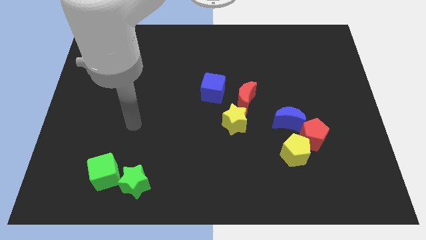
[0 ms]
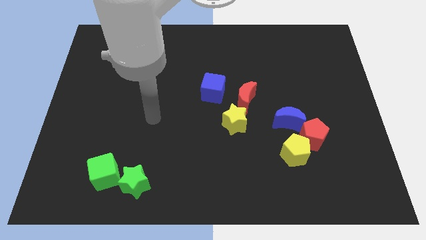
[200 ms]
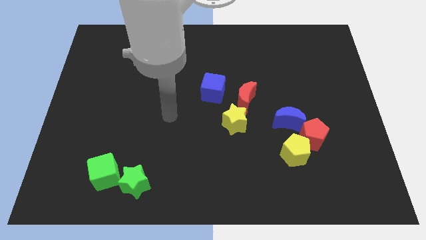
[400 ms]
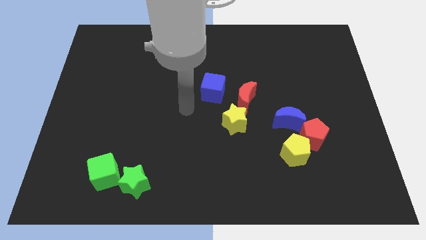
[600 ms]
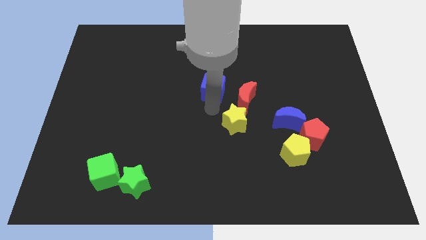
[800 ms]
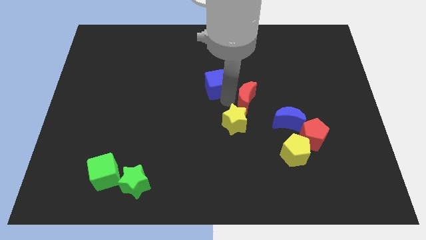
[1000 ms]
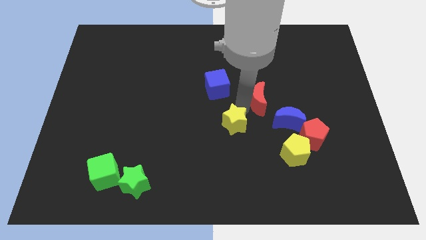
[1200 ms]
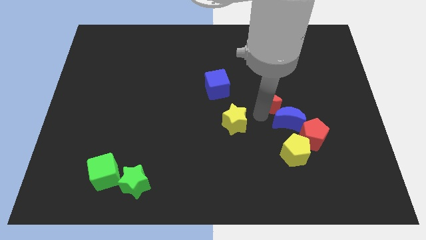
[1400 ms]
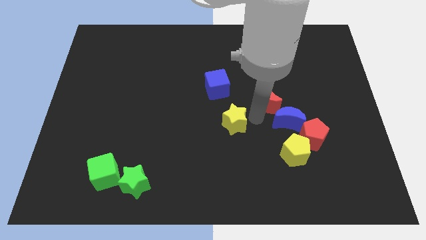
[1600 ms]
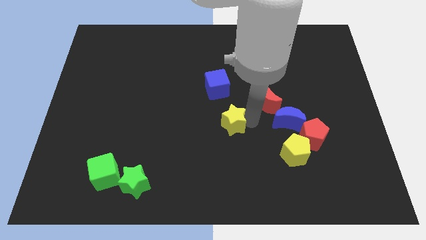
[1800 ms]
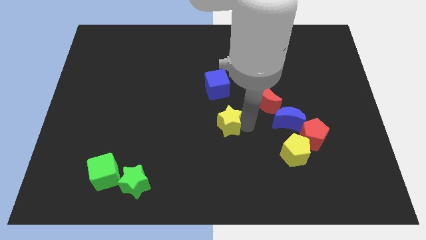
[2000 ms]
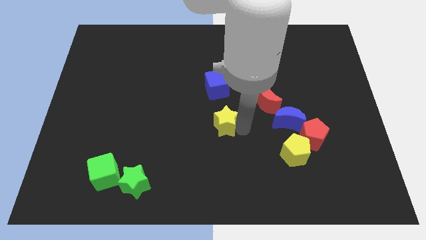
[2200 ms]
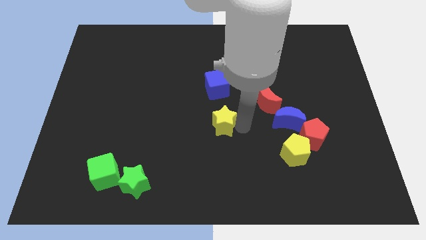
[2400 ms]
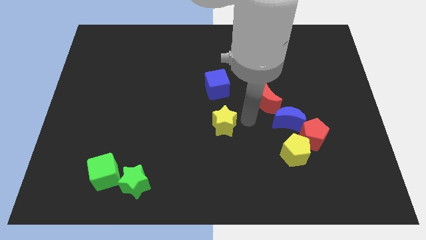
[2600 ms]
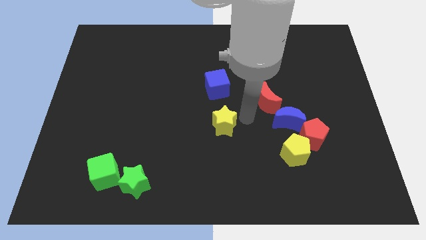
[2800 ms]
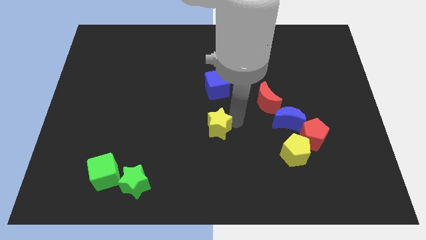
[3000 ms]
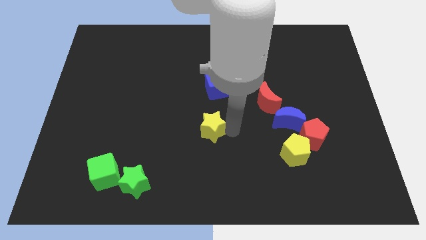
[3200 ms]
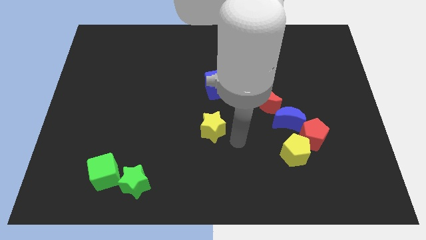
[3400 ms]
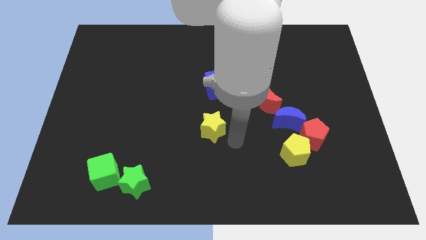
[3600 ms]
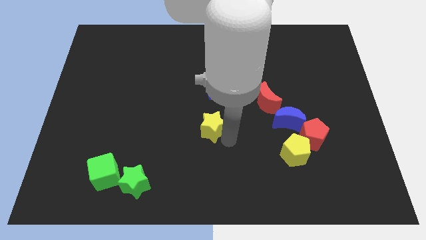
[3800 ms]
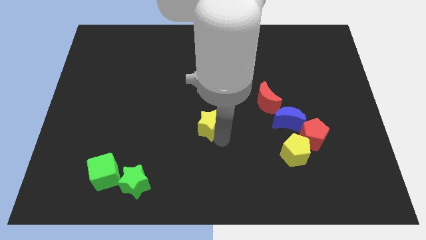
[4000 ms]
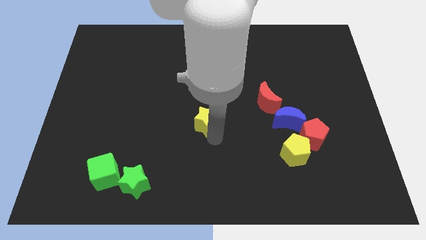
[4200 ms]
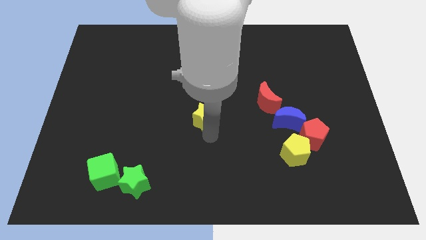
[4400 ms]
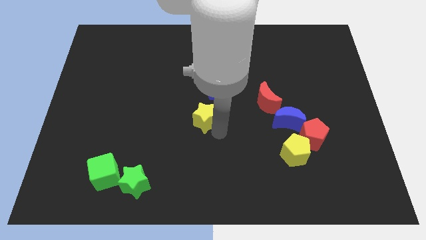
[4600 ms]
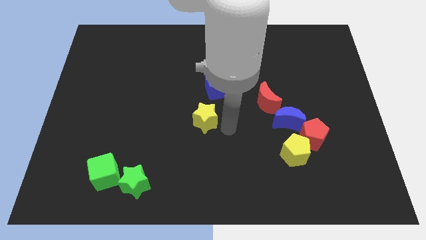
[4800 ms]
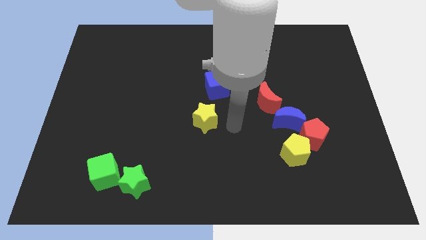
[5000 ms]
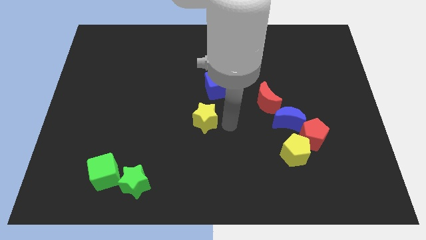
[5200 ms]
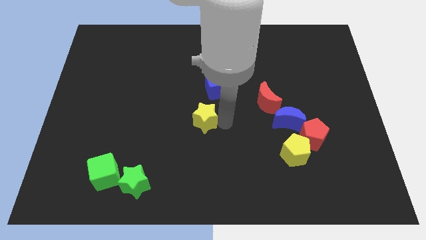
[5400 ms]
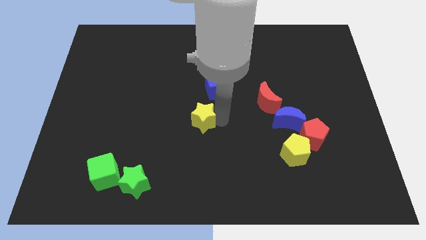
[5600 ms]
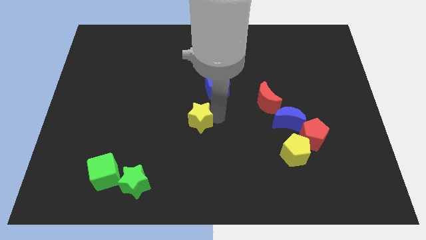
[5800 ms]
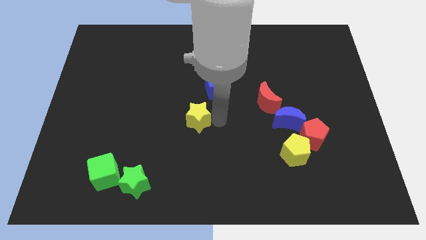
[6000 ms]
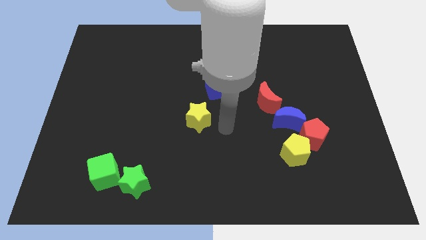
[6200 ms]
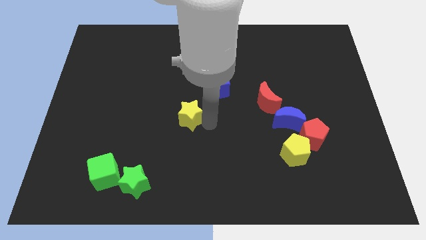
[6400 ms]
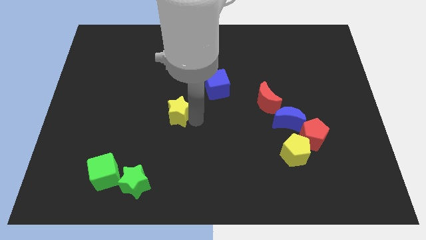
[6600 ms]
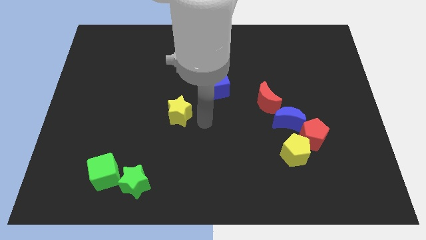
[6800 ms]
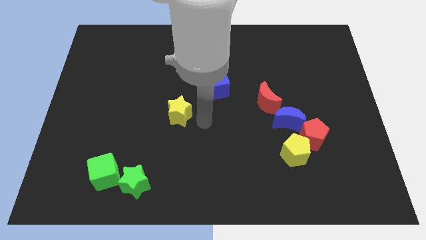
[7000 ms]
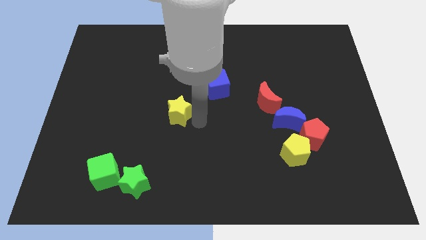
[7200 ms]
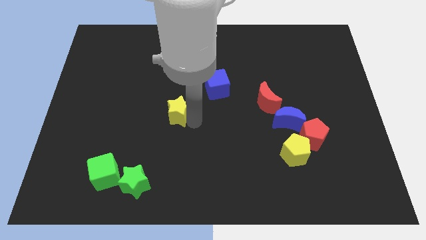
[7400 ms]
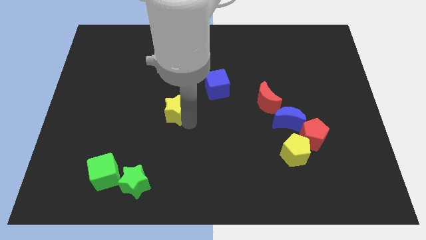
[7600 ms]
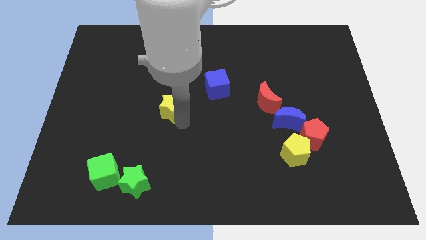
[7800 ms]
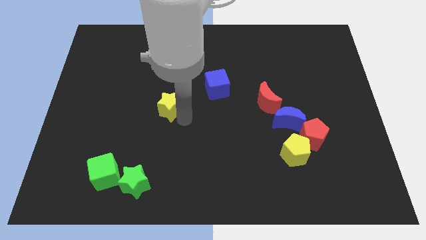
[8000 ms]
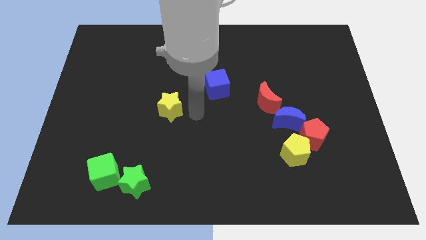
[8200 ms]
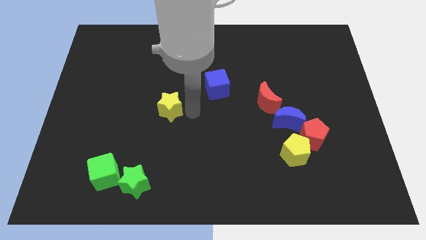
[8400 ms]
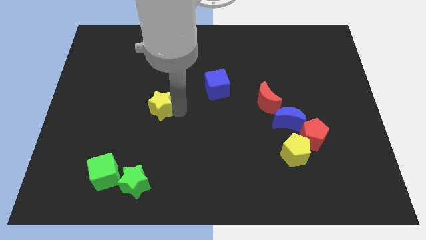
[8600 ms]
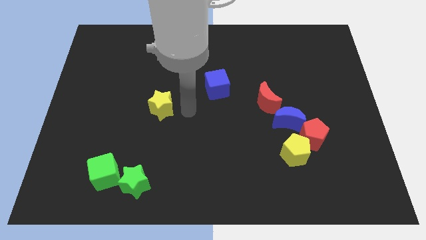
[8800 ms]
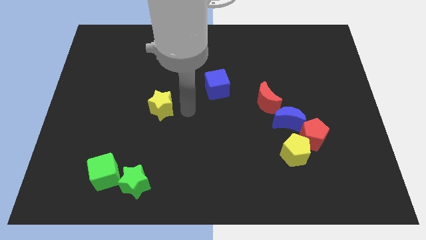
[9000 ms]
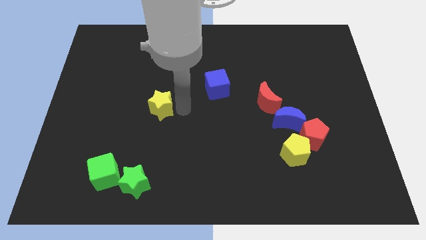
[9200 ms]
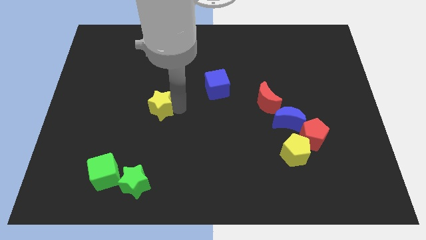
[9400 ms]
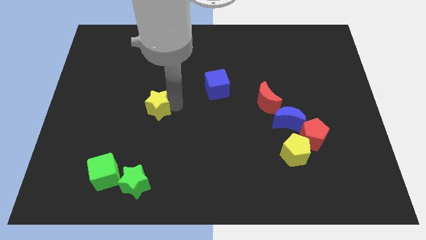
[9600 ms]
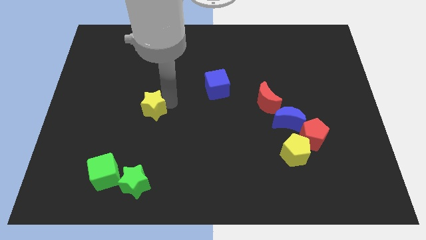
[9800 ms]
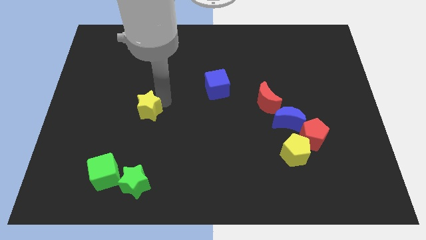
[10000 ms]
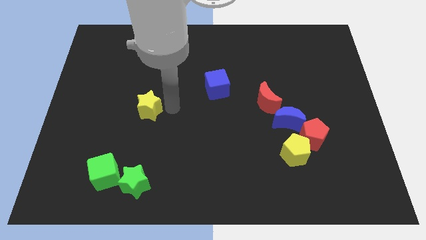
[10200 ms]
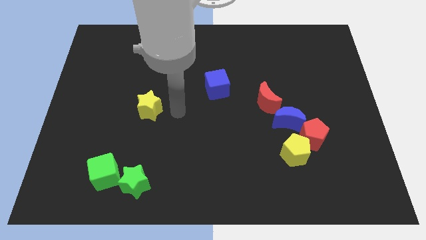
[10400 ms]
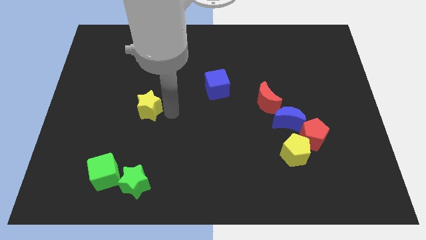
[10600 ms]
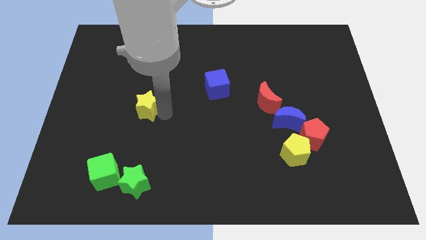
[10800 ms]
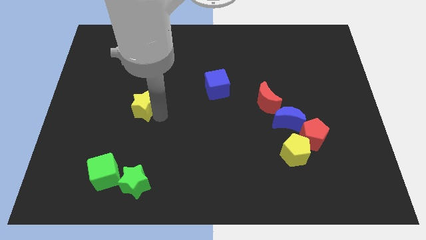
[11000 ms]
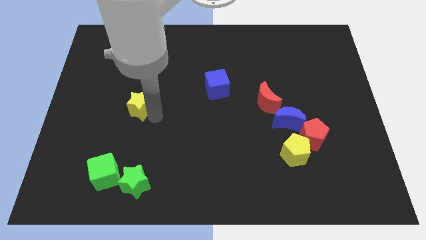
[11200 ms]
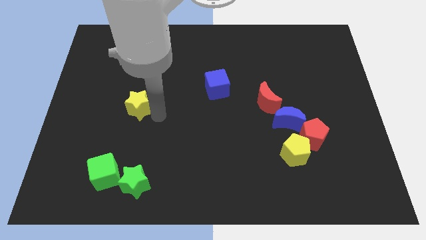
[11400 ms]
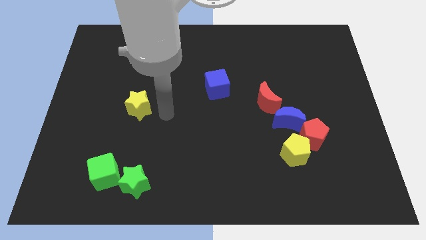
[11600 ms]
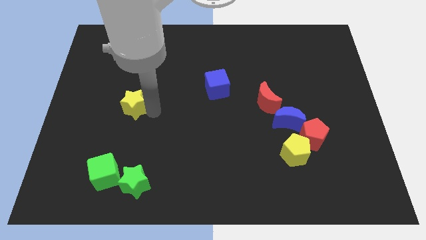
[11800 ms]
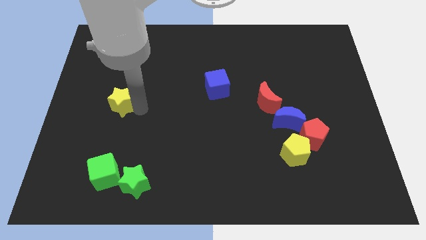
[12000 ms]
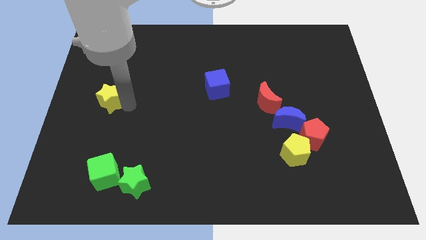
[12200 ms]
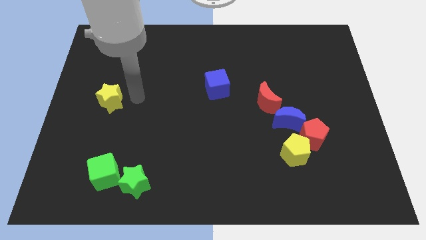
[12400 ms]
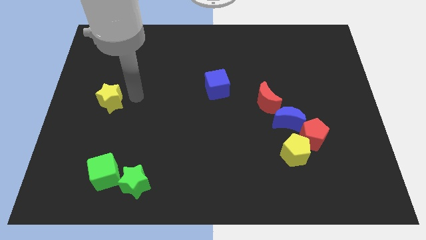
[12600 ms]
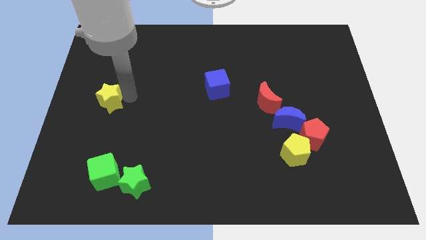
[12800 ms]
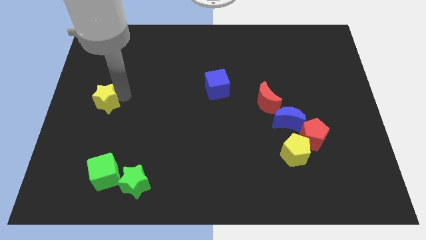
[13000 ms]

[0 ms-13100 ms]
move the yellow star to the left side of the board
